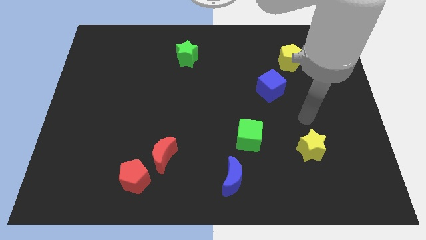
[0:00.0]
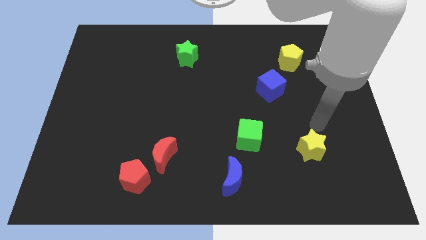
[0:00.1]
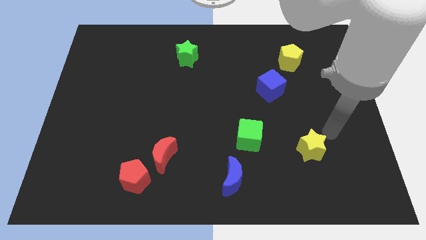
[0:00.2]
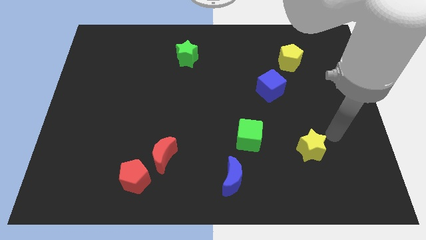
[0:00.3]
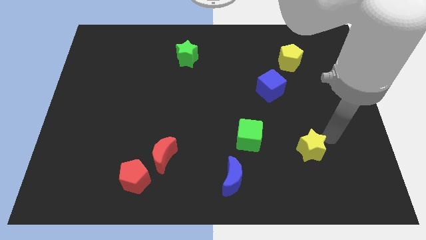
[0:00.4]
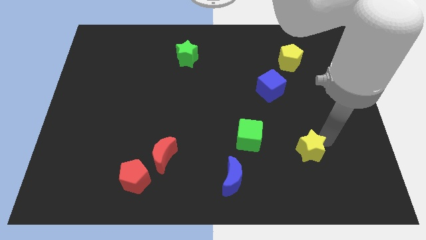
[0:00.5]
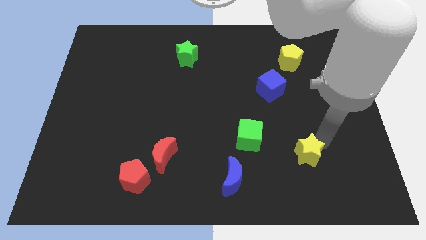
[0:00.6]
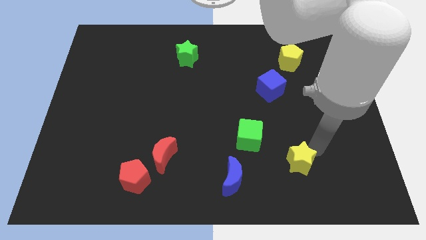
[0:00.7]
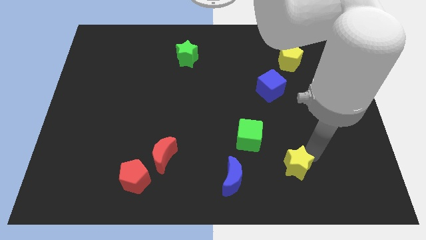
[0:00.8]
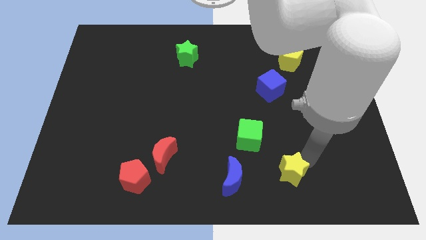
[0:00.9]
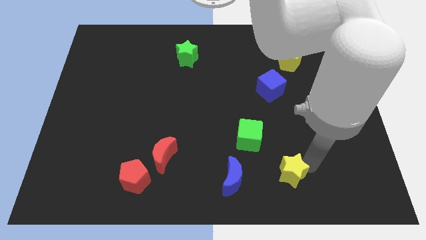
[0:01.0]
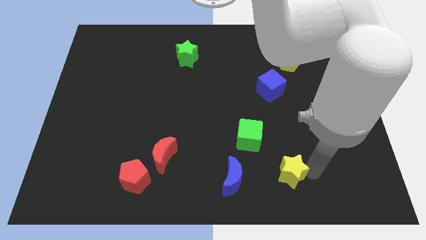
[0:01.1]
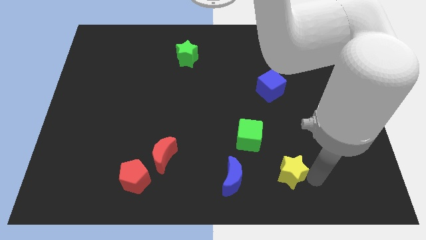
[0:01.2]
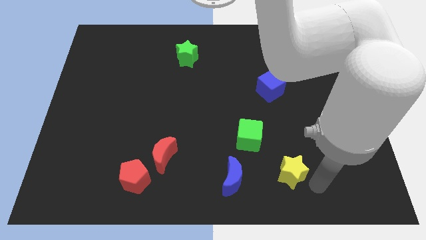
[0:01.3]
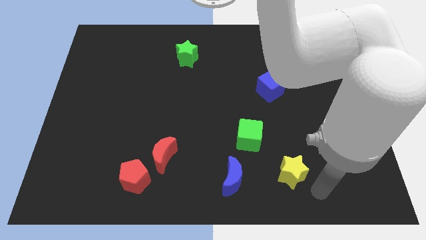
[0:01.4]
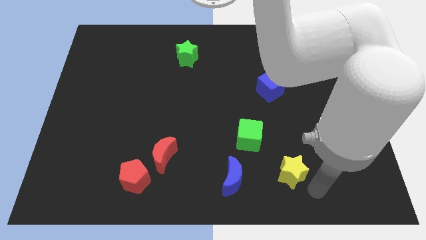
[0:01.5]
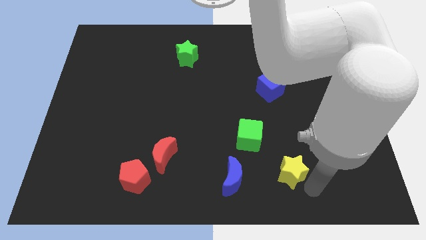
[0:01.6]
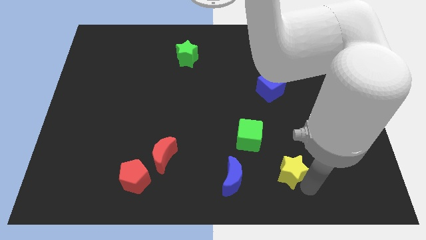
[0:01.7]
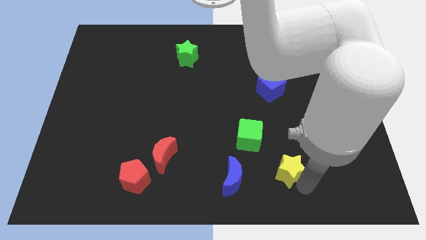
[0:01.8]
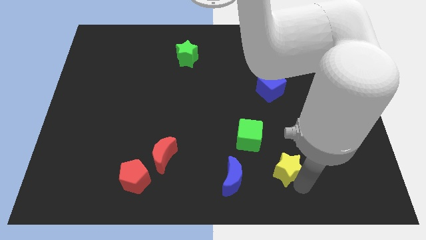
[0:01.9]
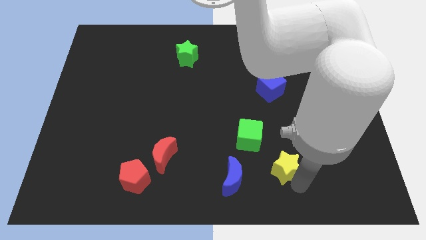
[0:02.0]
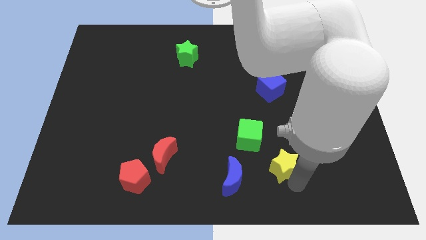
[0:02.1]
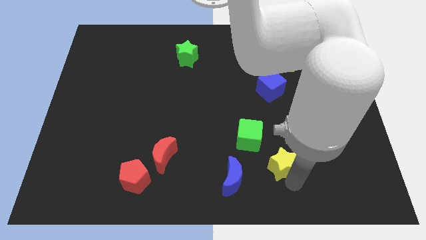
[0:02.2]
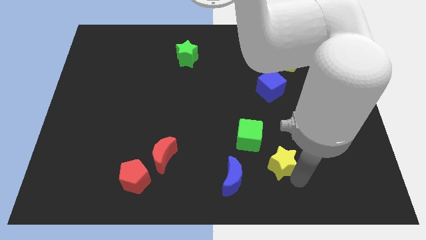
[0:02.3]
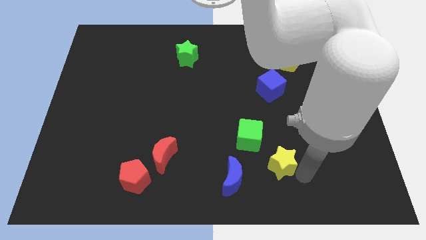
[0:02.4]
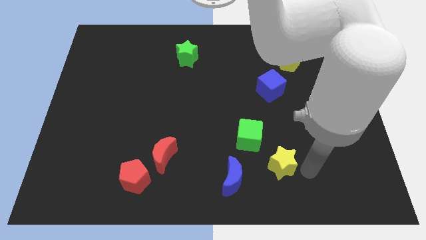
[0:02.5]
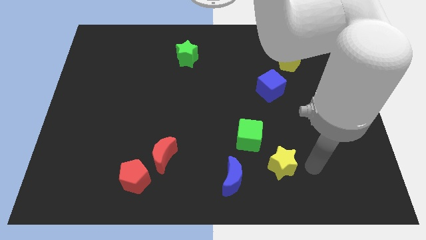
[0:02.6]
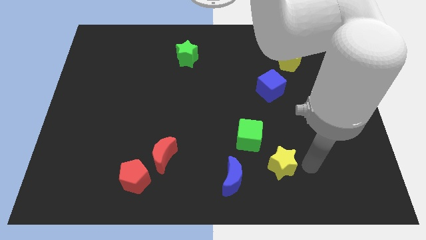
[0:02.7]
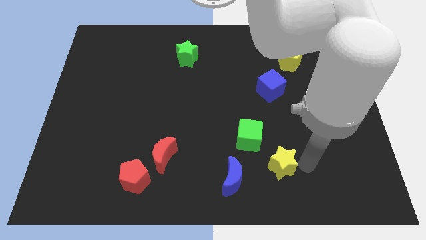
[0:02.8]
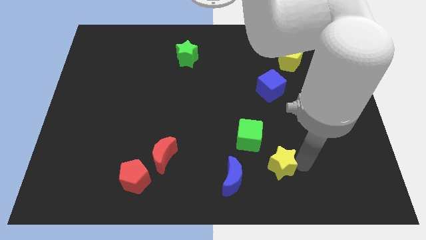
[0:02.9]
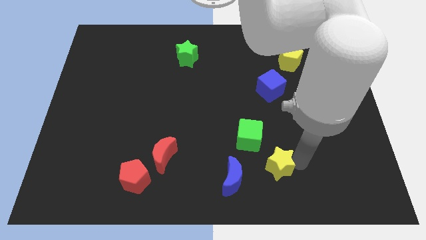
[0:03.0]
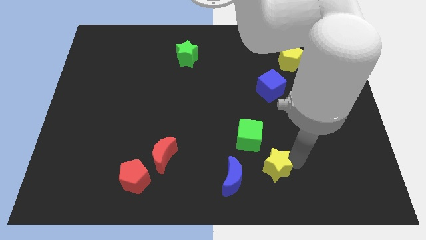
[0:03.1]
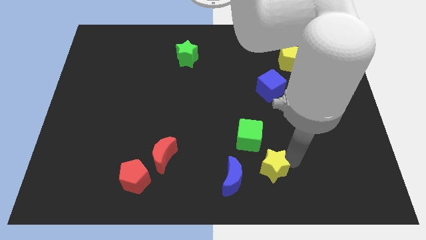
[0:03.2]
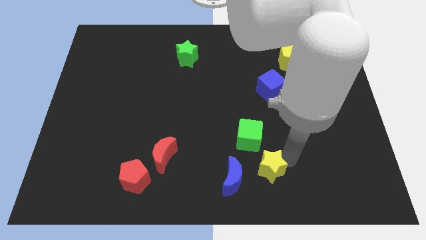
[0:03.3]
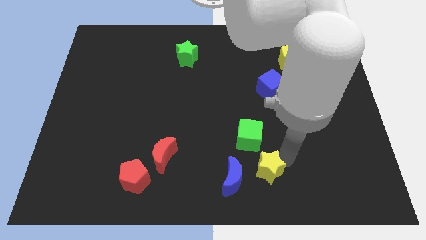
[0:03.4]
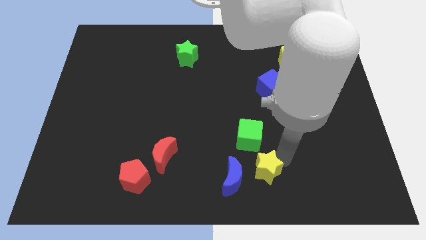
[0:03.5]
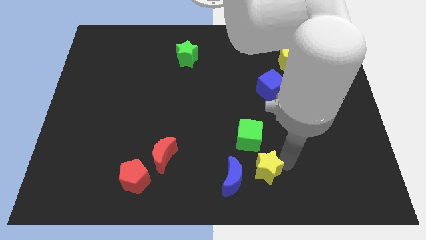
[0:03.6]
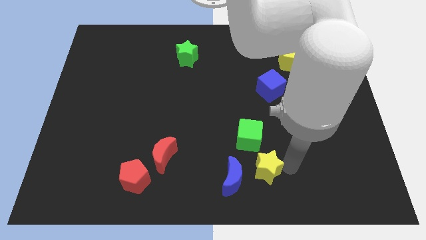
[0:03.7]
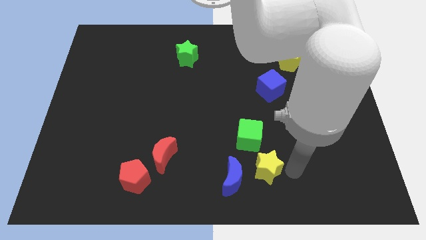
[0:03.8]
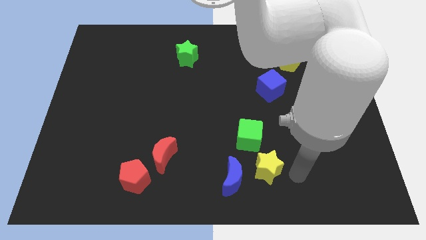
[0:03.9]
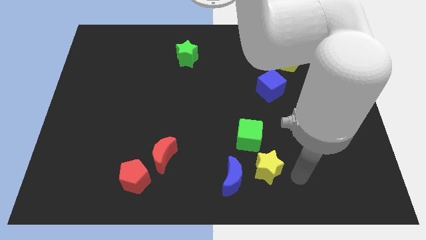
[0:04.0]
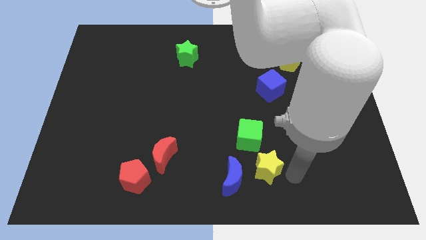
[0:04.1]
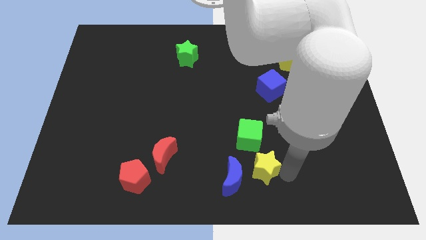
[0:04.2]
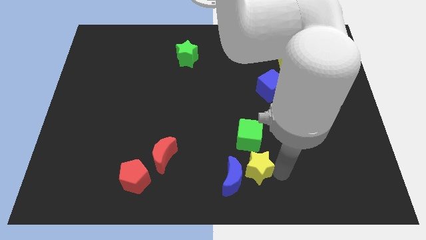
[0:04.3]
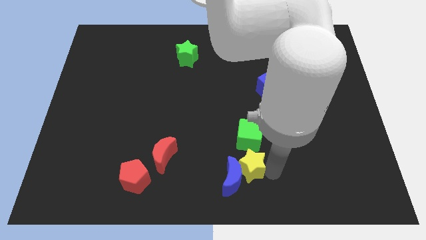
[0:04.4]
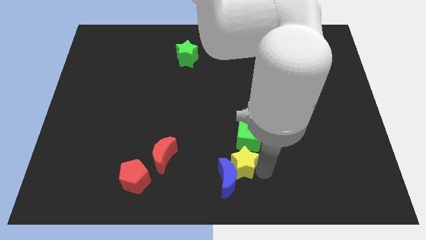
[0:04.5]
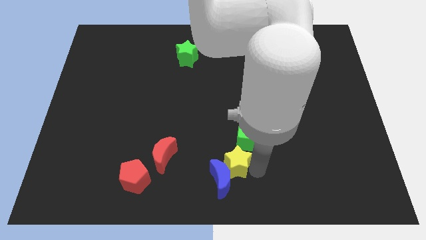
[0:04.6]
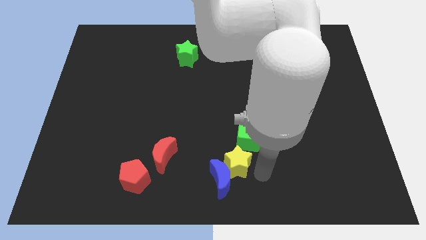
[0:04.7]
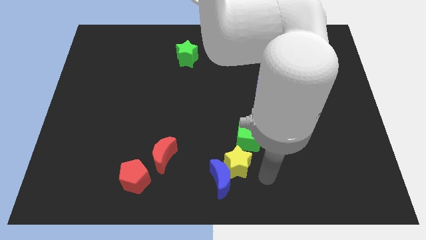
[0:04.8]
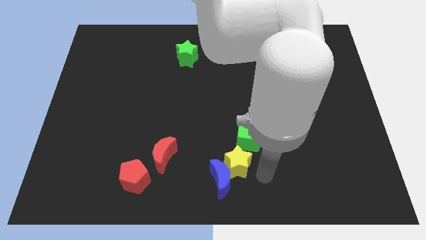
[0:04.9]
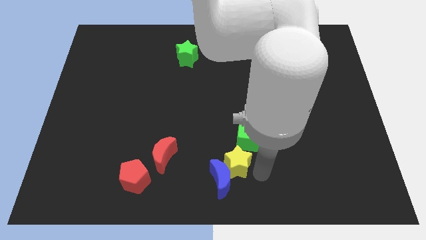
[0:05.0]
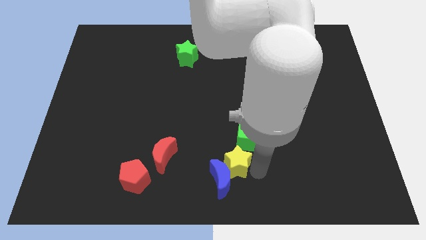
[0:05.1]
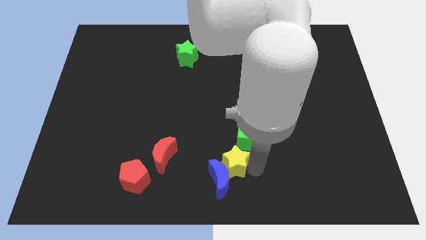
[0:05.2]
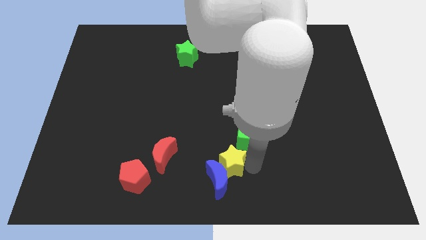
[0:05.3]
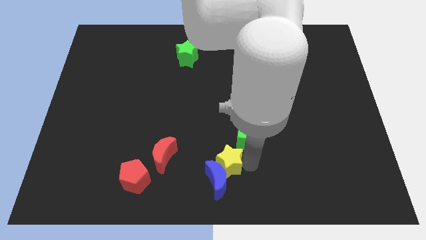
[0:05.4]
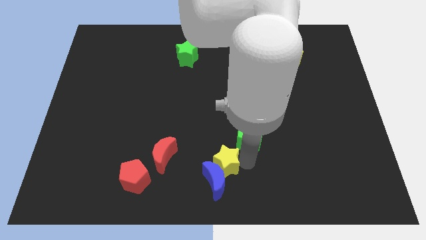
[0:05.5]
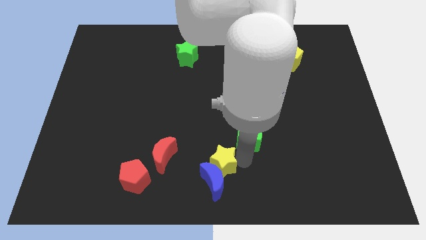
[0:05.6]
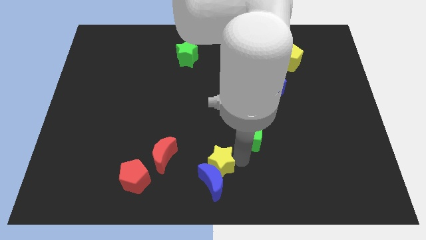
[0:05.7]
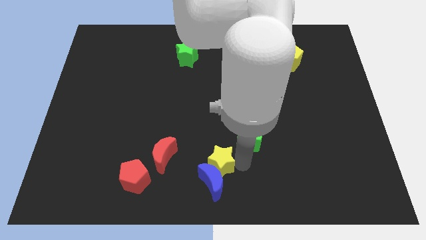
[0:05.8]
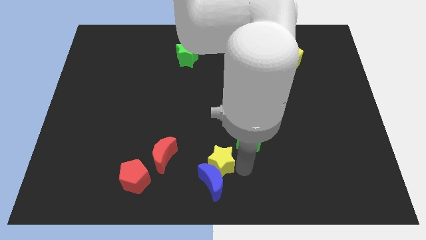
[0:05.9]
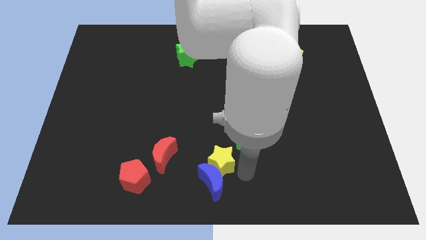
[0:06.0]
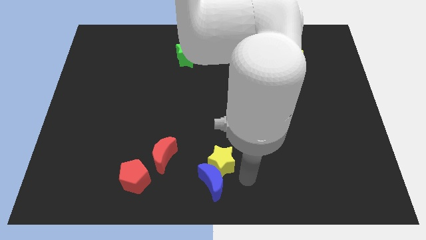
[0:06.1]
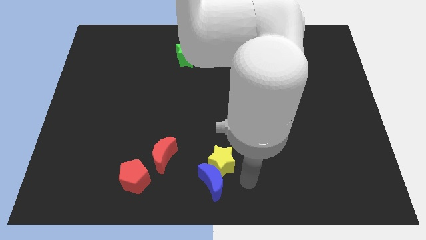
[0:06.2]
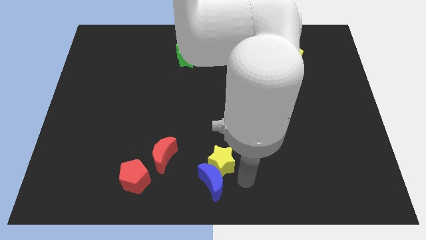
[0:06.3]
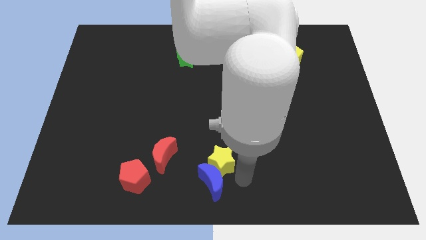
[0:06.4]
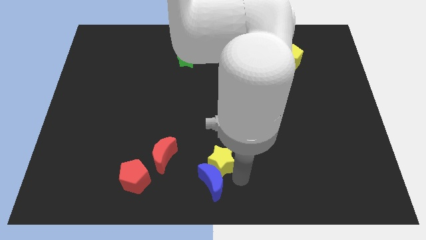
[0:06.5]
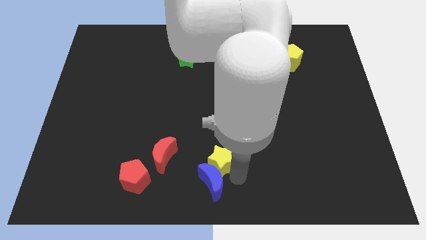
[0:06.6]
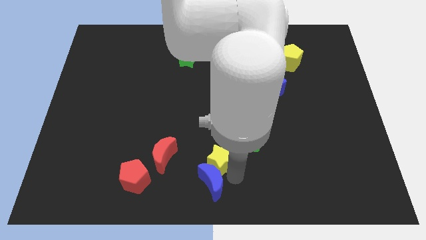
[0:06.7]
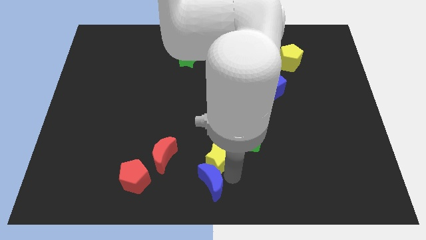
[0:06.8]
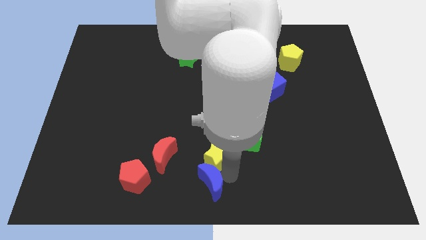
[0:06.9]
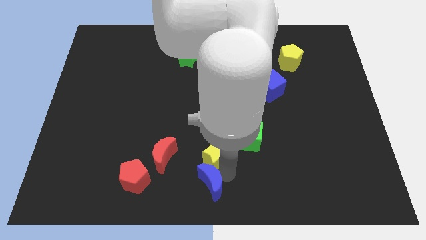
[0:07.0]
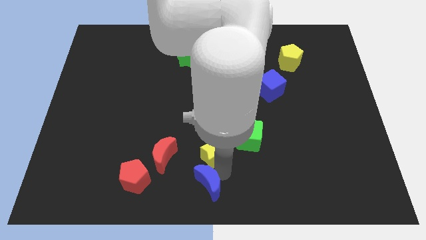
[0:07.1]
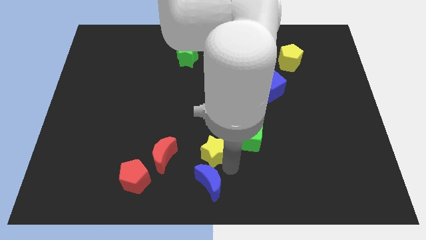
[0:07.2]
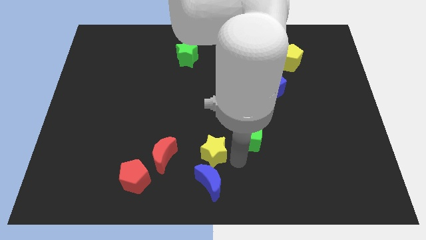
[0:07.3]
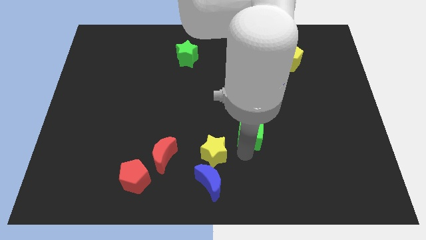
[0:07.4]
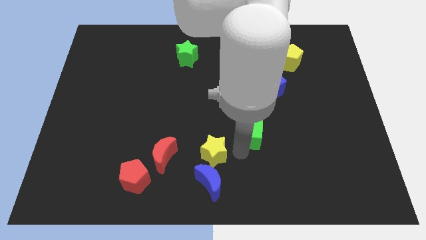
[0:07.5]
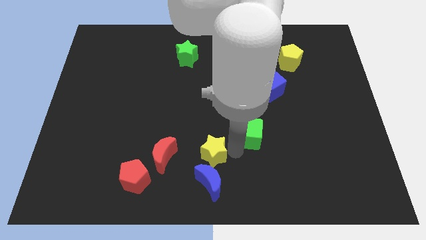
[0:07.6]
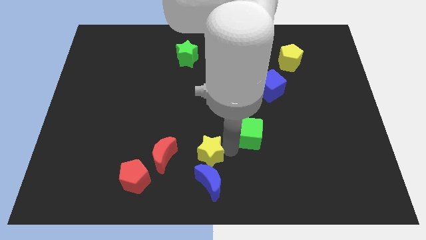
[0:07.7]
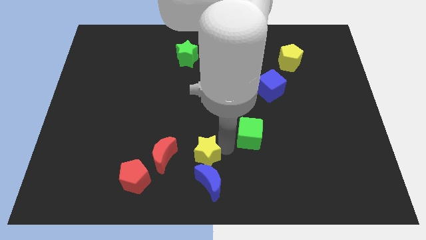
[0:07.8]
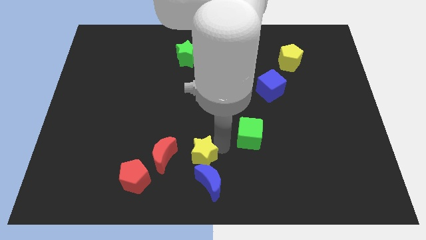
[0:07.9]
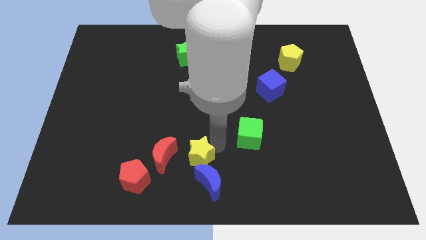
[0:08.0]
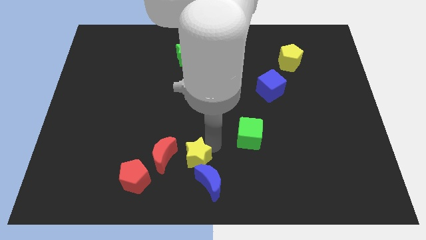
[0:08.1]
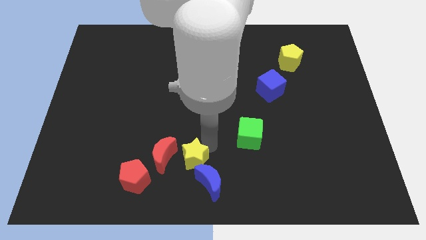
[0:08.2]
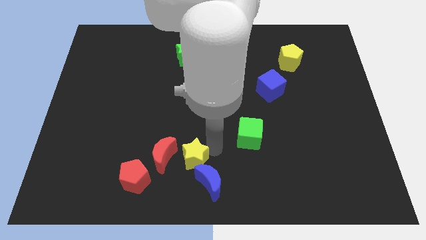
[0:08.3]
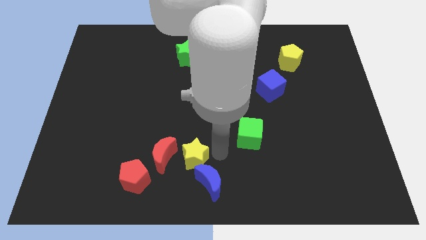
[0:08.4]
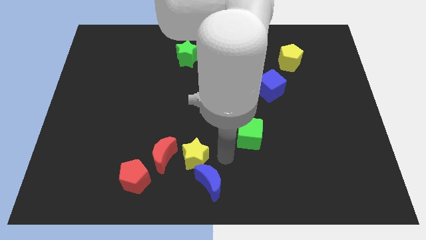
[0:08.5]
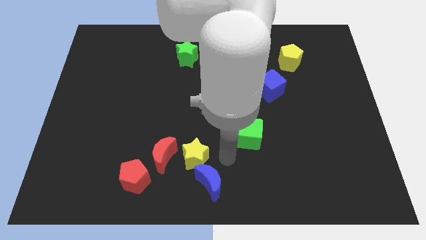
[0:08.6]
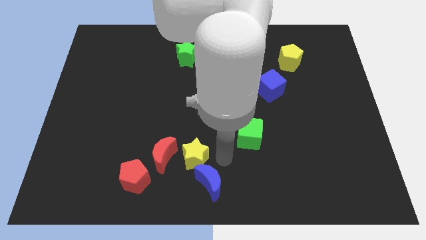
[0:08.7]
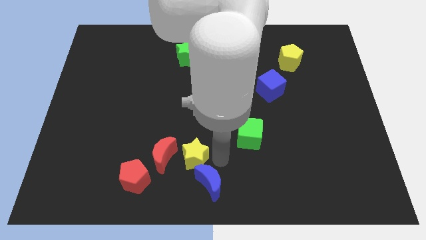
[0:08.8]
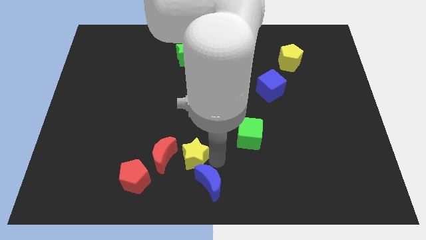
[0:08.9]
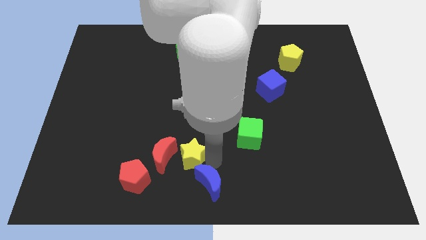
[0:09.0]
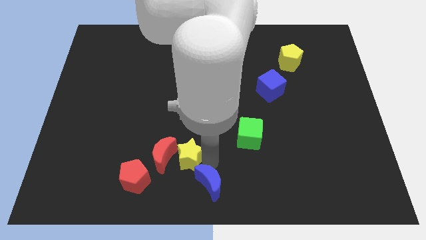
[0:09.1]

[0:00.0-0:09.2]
put the yellow star to the red moon
